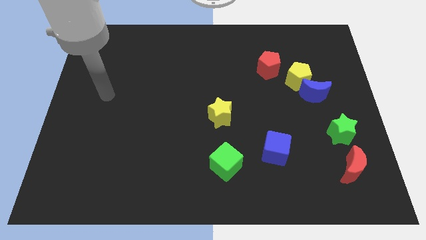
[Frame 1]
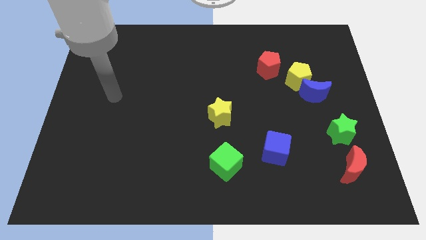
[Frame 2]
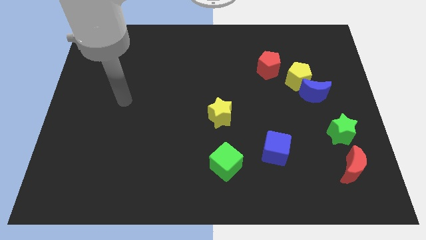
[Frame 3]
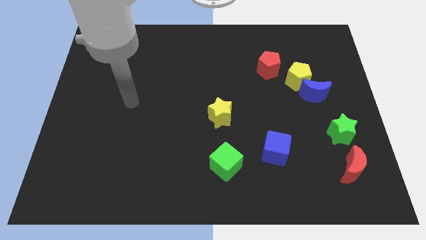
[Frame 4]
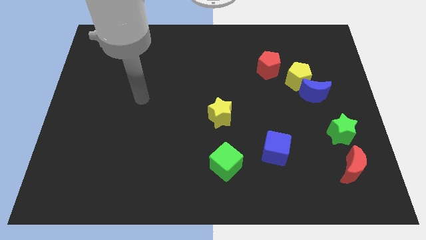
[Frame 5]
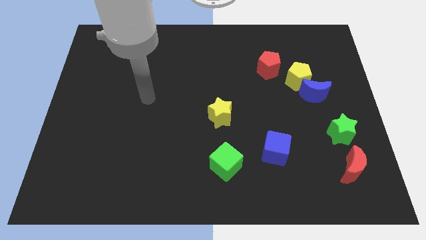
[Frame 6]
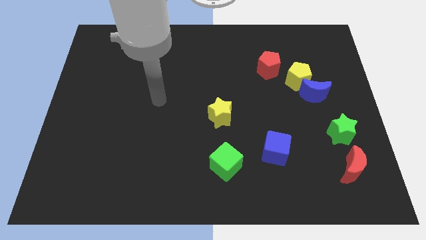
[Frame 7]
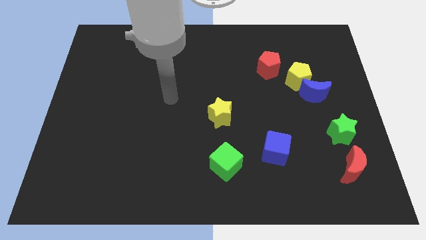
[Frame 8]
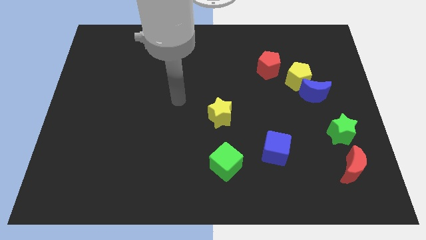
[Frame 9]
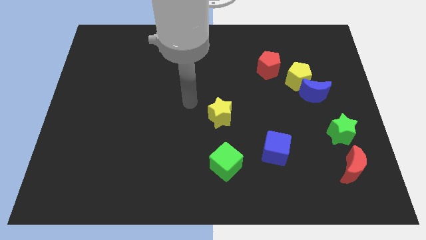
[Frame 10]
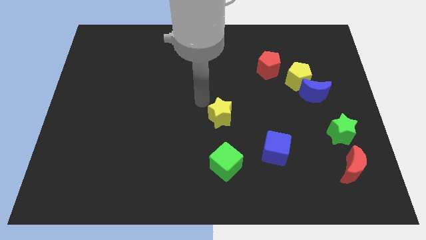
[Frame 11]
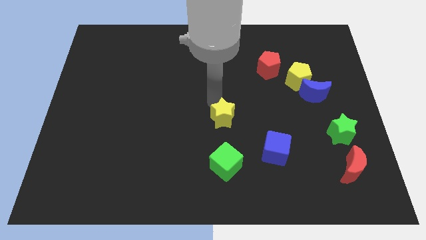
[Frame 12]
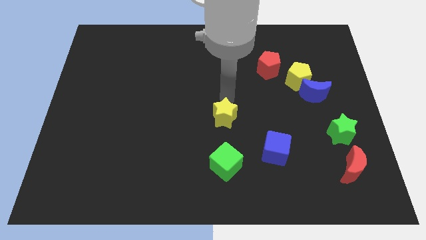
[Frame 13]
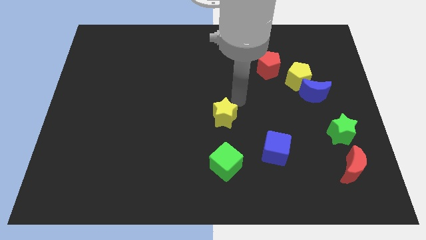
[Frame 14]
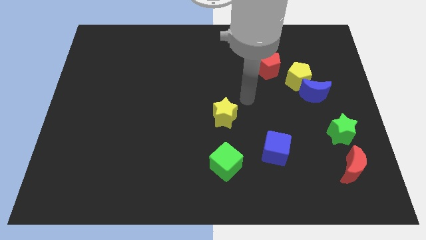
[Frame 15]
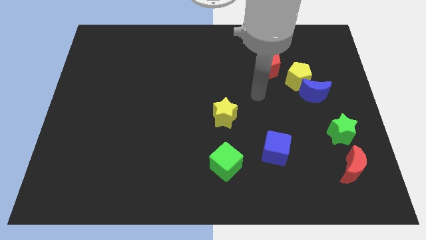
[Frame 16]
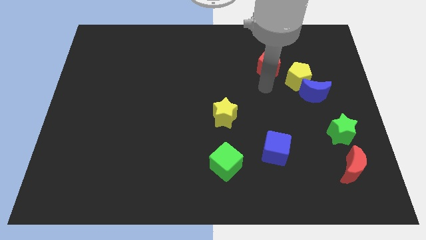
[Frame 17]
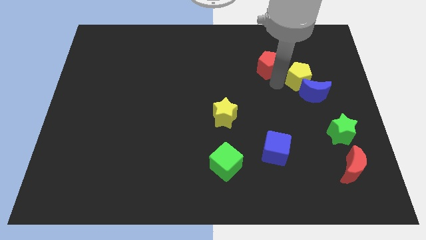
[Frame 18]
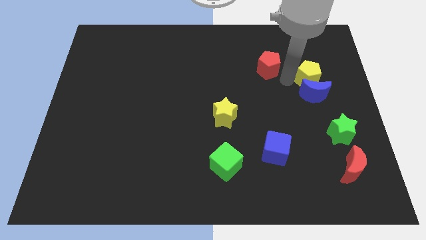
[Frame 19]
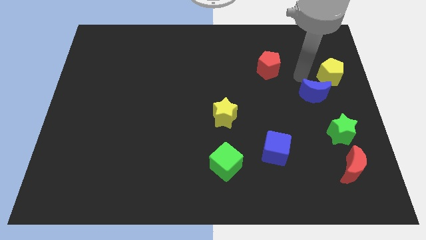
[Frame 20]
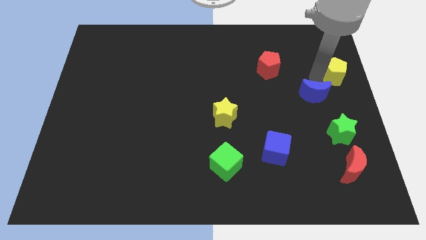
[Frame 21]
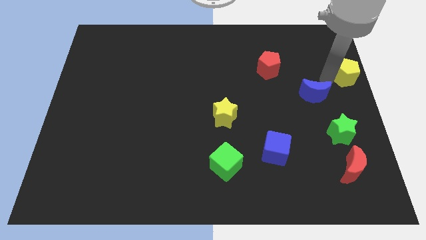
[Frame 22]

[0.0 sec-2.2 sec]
pull the blue moon apart from the yellow pentagon

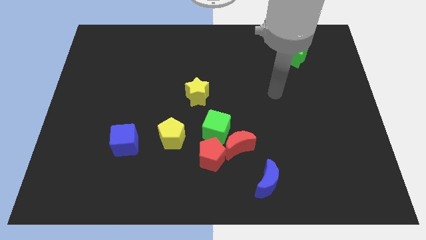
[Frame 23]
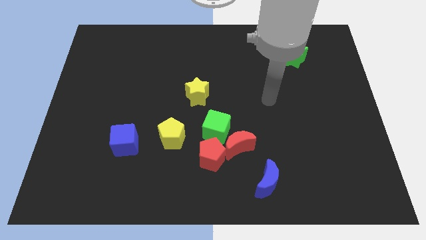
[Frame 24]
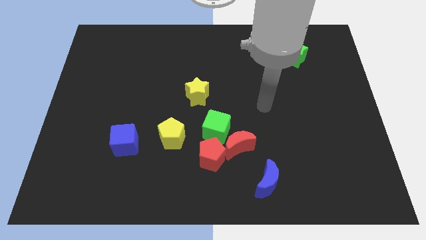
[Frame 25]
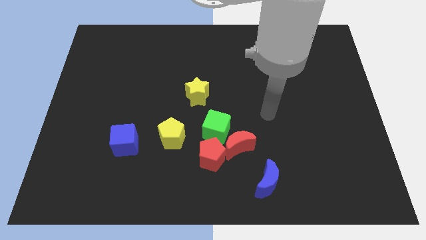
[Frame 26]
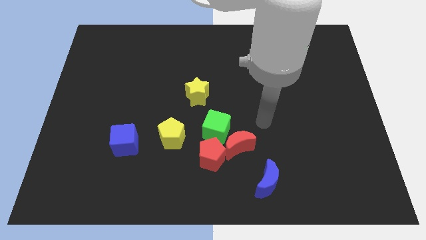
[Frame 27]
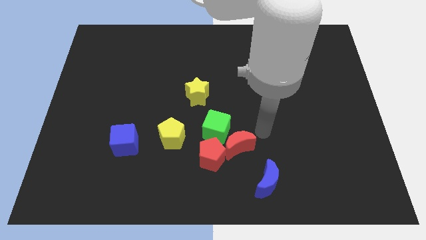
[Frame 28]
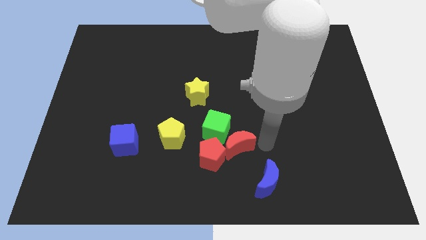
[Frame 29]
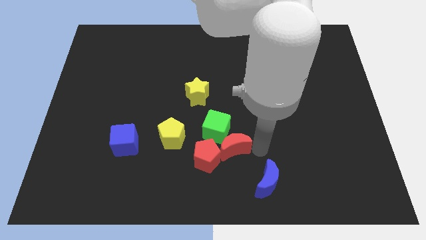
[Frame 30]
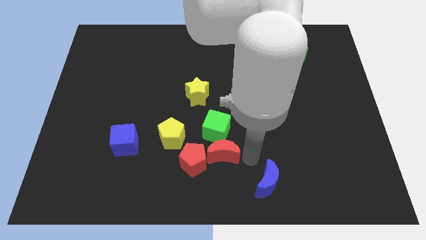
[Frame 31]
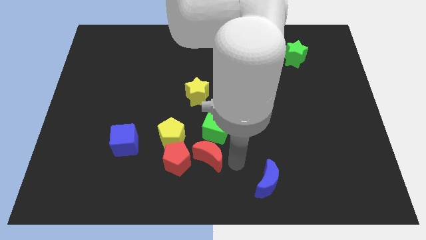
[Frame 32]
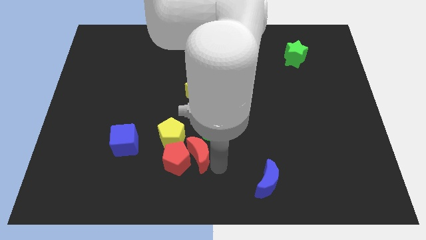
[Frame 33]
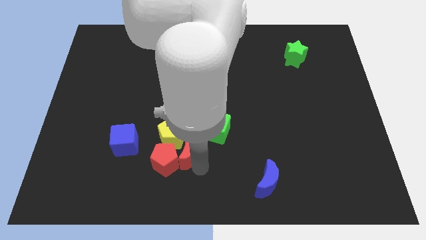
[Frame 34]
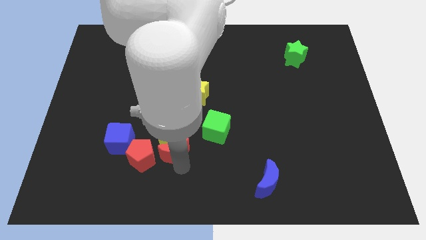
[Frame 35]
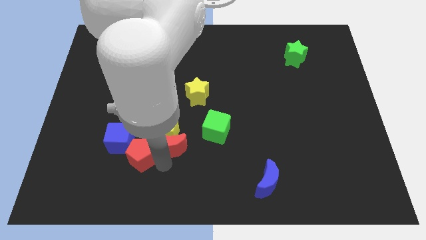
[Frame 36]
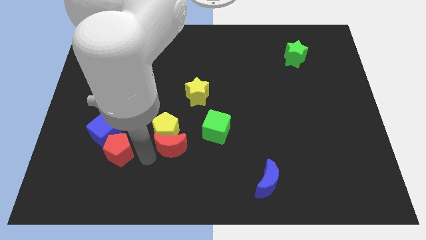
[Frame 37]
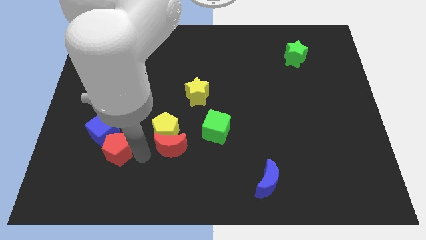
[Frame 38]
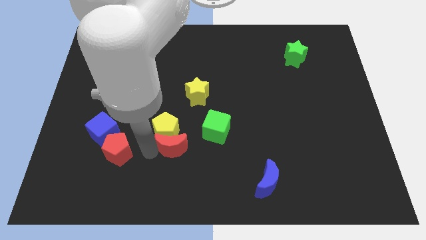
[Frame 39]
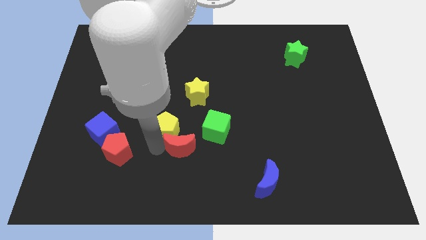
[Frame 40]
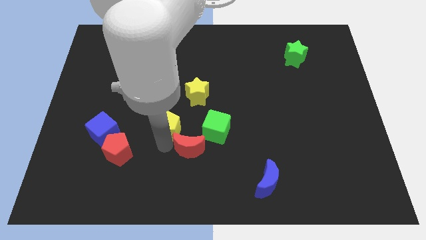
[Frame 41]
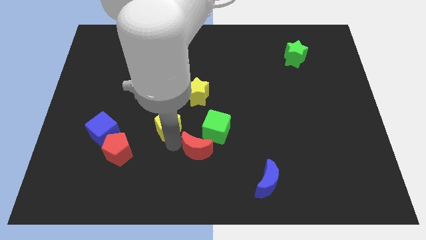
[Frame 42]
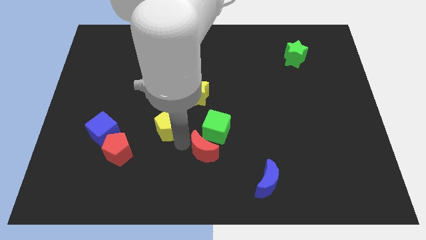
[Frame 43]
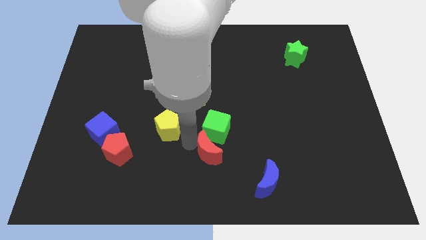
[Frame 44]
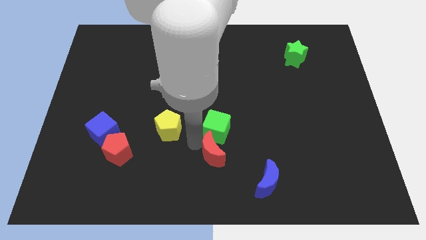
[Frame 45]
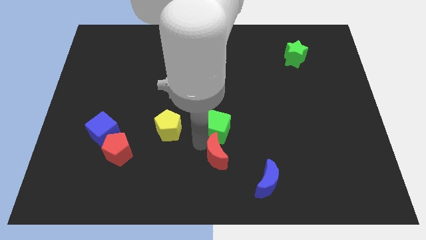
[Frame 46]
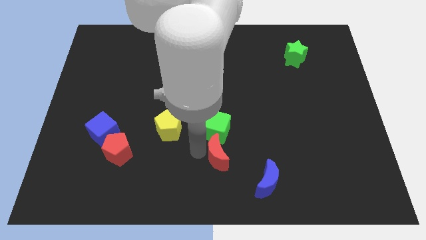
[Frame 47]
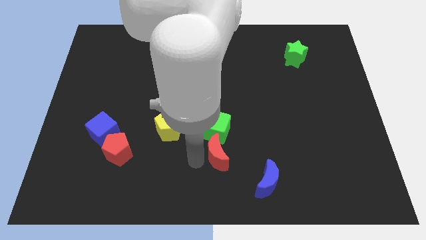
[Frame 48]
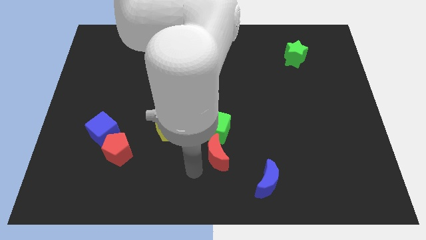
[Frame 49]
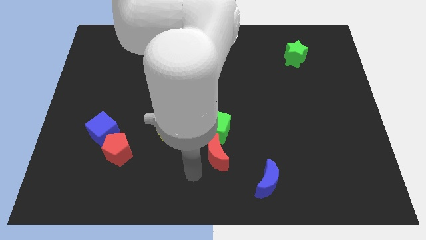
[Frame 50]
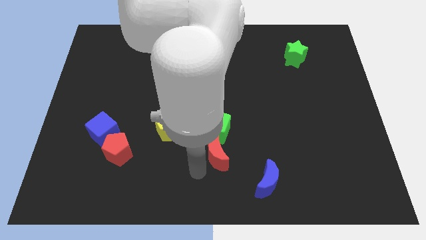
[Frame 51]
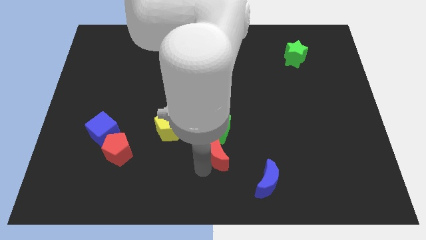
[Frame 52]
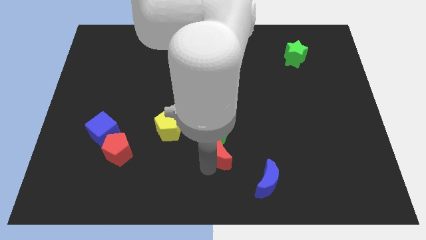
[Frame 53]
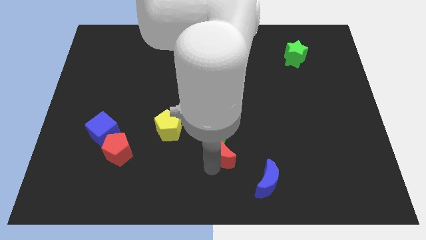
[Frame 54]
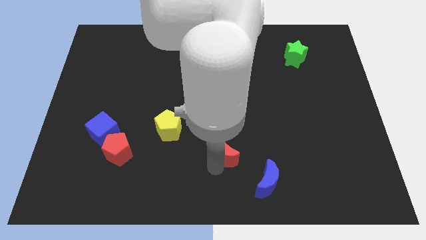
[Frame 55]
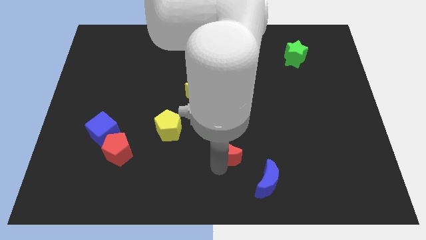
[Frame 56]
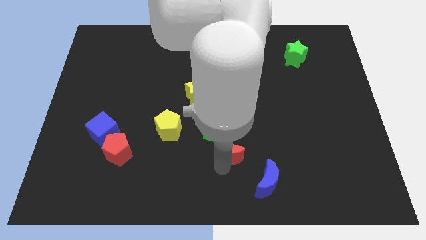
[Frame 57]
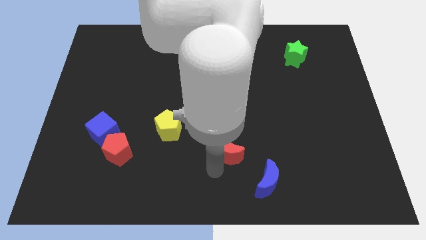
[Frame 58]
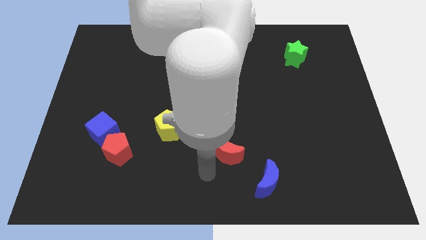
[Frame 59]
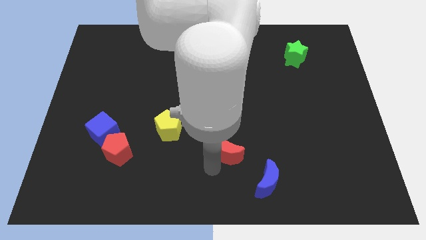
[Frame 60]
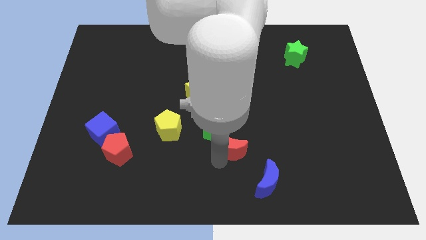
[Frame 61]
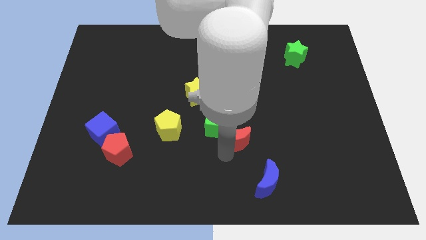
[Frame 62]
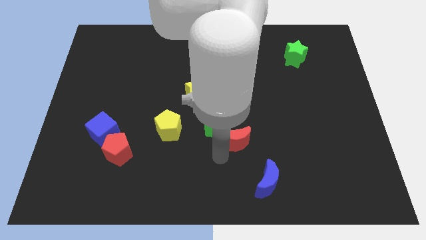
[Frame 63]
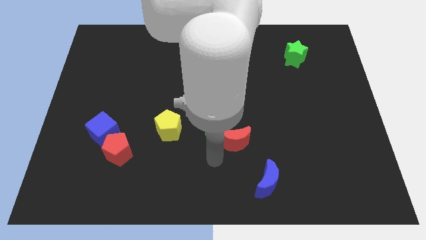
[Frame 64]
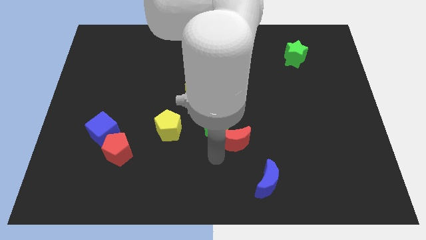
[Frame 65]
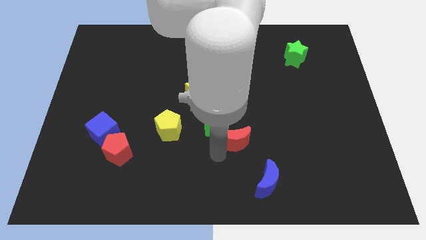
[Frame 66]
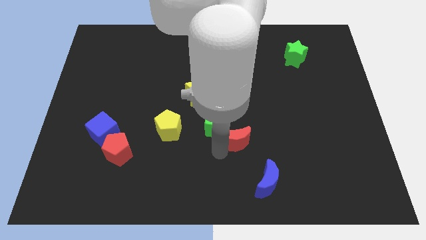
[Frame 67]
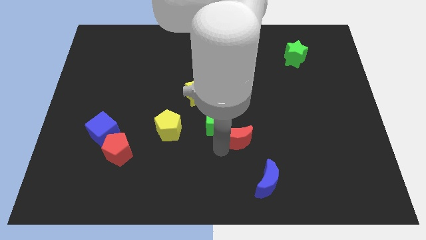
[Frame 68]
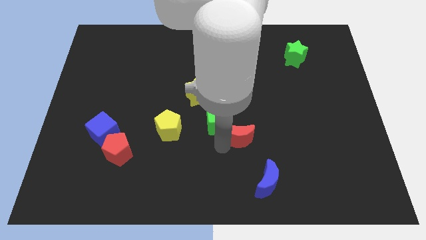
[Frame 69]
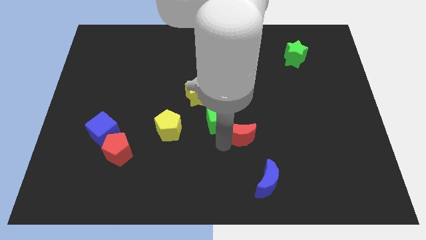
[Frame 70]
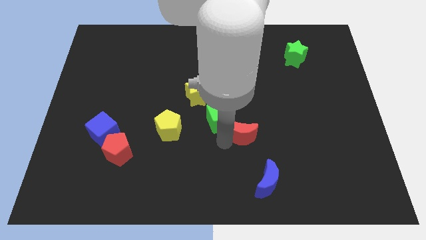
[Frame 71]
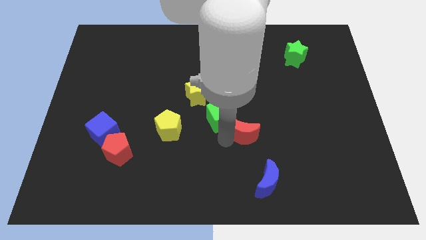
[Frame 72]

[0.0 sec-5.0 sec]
move the red moon away from the green cube, red pentagon, and blue moon

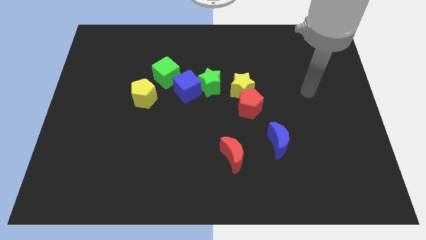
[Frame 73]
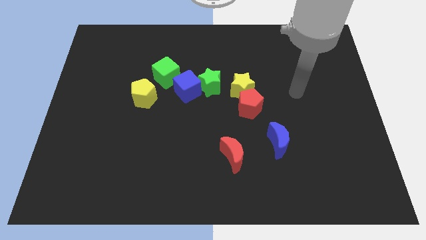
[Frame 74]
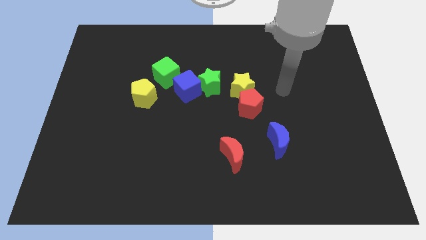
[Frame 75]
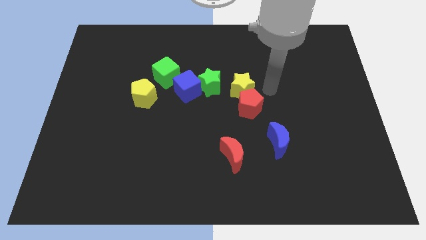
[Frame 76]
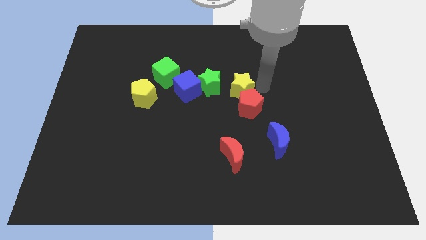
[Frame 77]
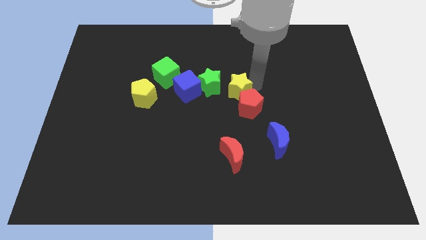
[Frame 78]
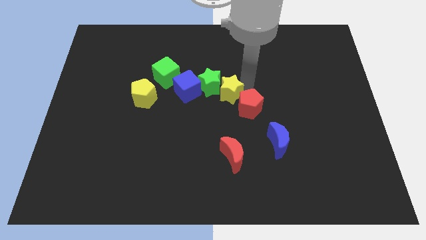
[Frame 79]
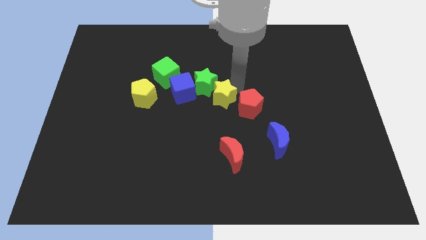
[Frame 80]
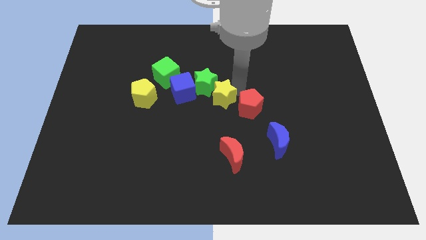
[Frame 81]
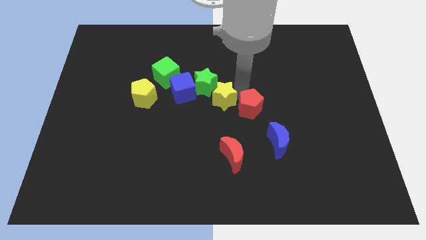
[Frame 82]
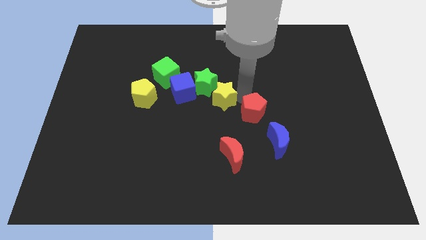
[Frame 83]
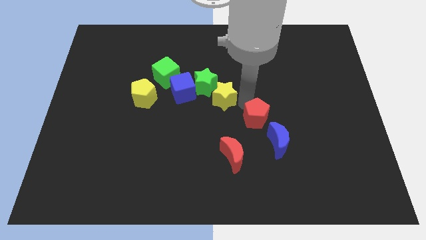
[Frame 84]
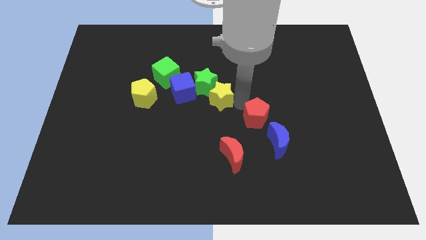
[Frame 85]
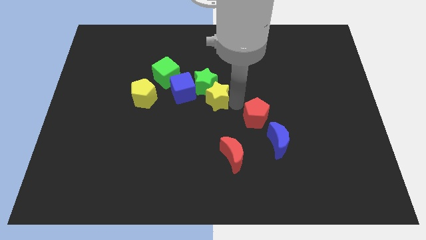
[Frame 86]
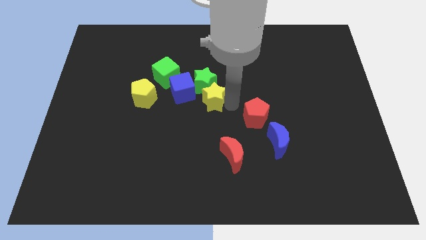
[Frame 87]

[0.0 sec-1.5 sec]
pull the red pentagon apart from the yellow star

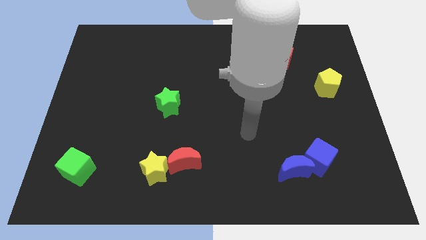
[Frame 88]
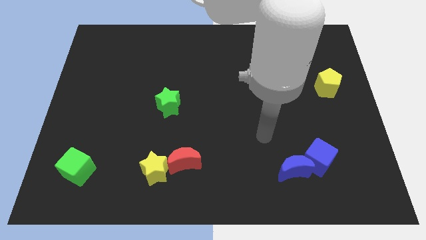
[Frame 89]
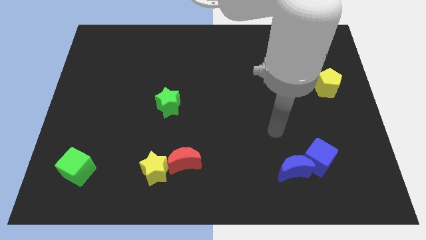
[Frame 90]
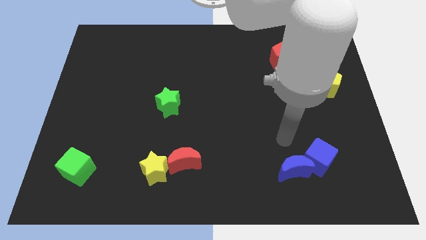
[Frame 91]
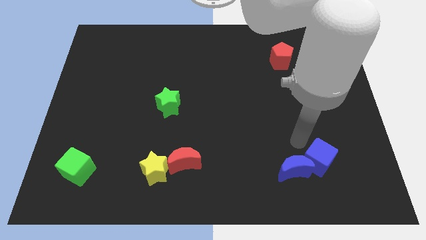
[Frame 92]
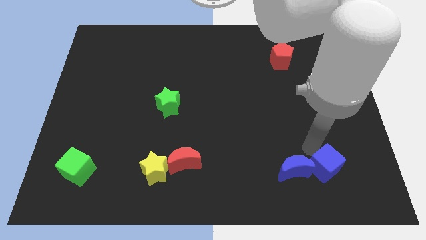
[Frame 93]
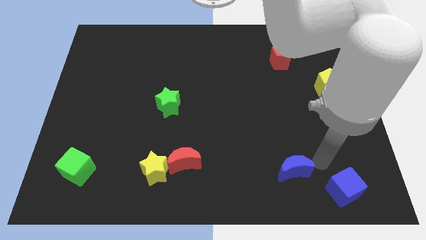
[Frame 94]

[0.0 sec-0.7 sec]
pull the blue moon apart from the blue cube
